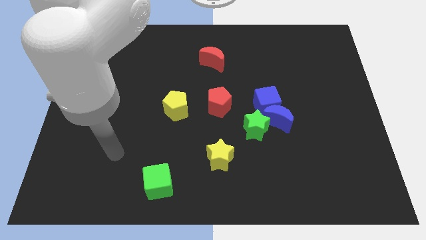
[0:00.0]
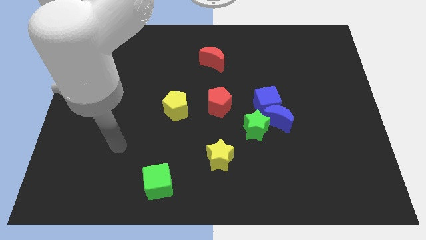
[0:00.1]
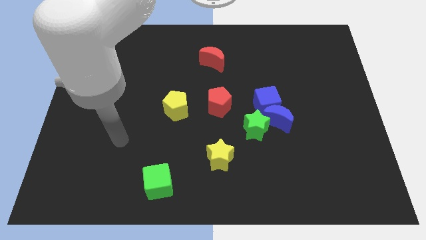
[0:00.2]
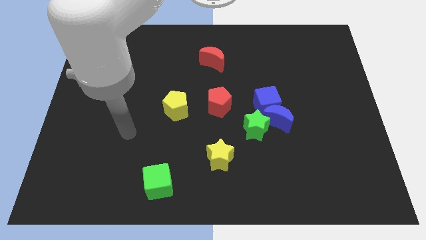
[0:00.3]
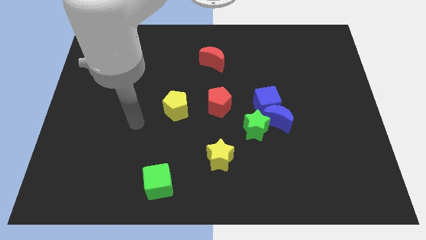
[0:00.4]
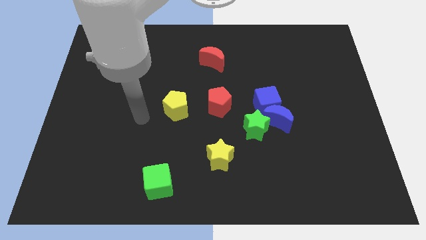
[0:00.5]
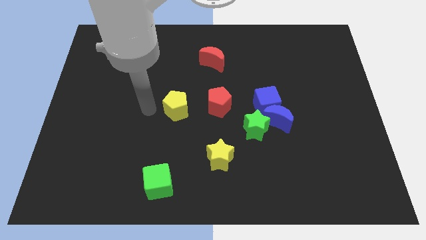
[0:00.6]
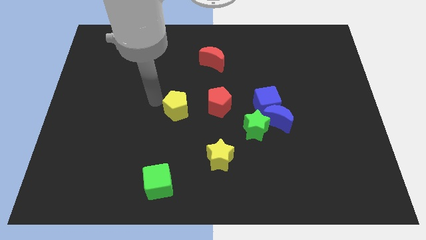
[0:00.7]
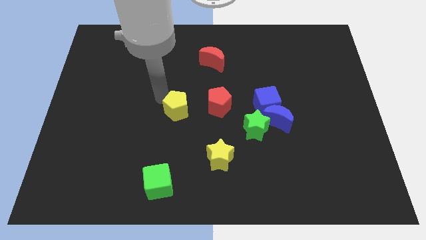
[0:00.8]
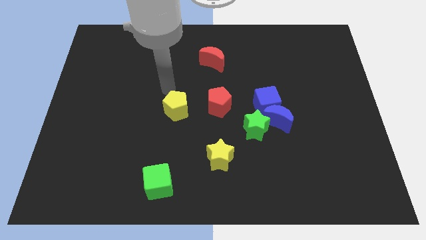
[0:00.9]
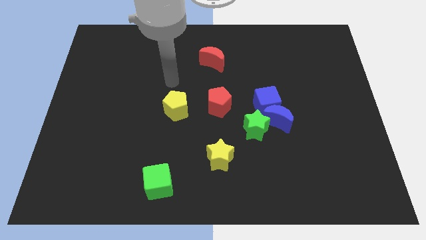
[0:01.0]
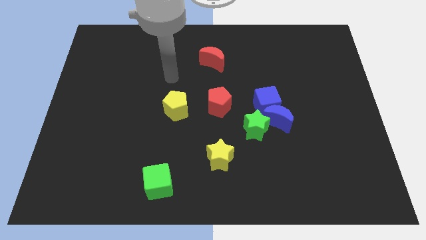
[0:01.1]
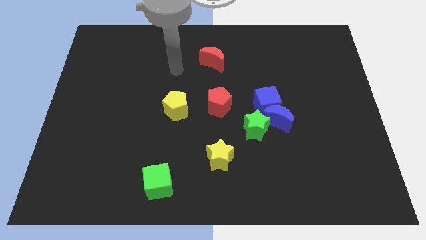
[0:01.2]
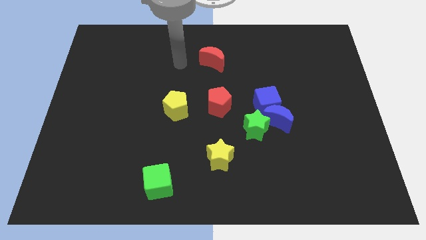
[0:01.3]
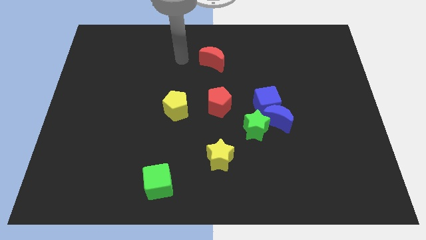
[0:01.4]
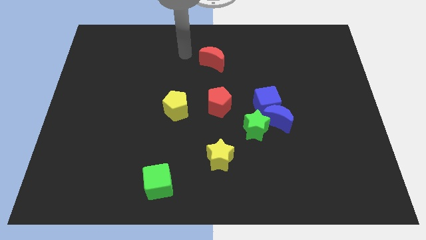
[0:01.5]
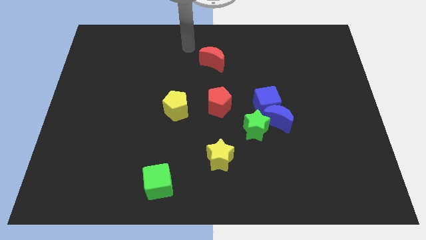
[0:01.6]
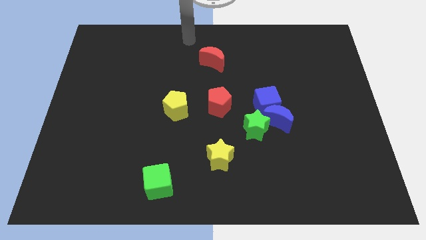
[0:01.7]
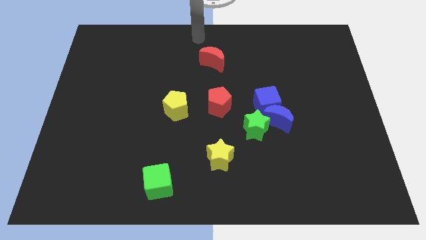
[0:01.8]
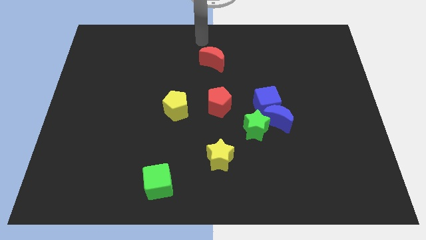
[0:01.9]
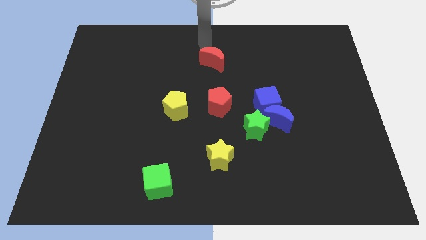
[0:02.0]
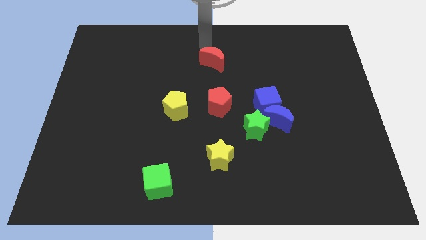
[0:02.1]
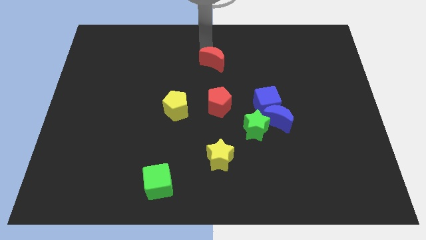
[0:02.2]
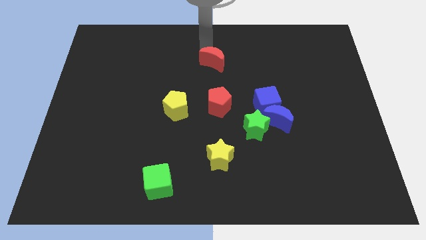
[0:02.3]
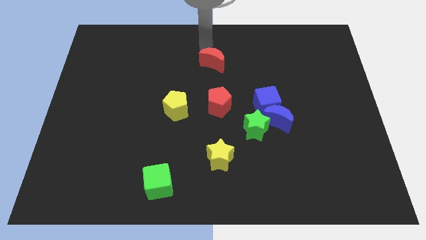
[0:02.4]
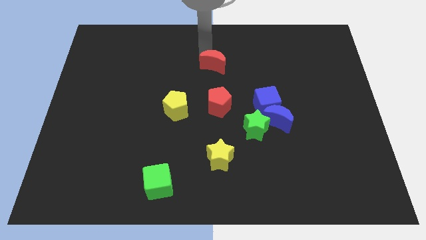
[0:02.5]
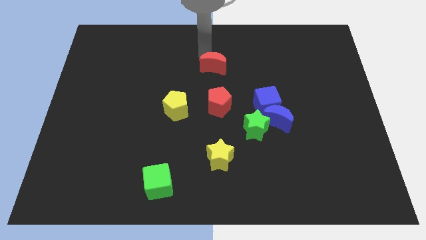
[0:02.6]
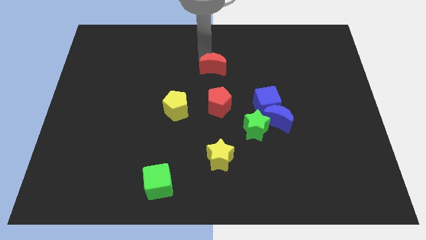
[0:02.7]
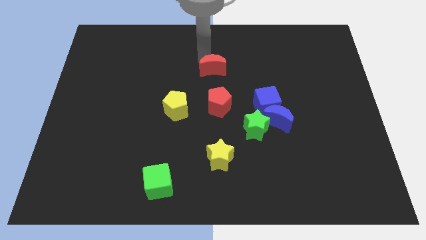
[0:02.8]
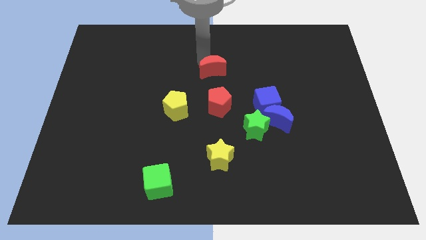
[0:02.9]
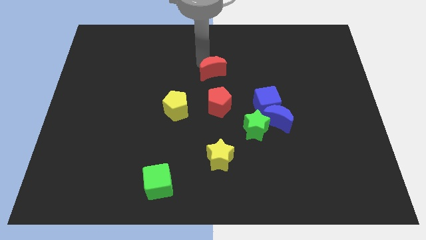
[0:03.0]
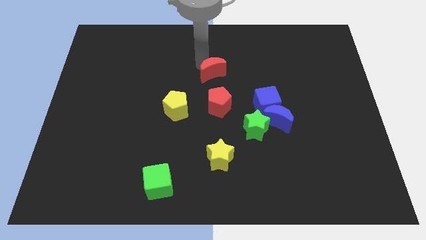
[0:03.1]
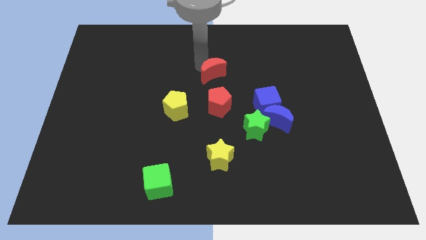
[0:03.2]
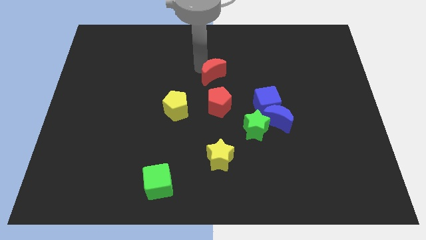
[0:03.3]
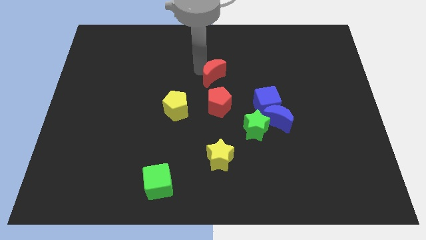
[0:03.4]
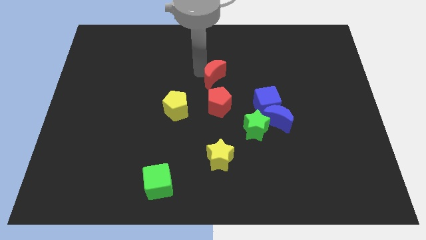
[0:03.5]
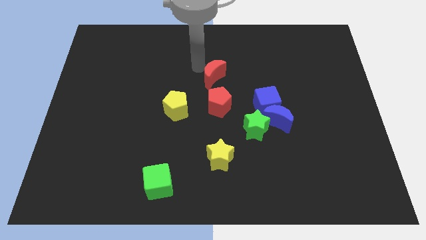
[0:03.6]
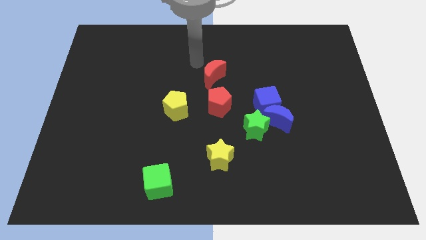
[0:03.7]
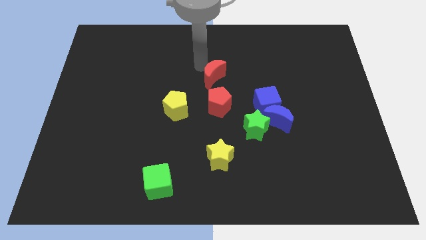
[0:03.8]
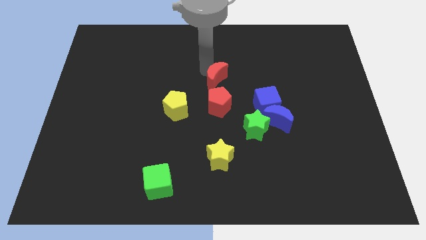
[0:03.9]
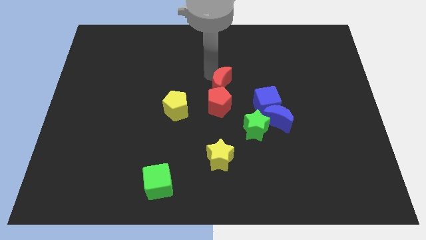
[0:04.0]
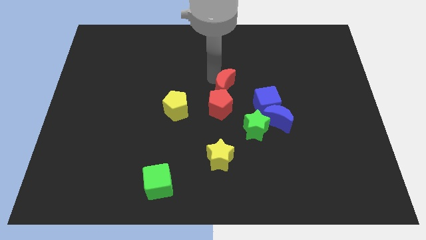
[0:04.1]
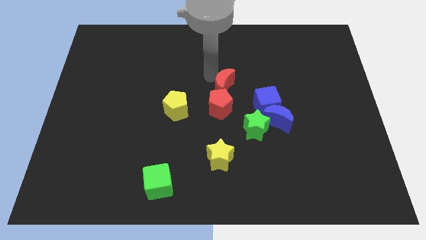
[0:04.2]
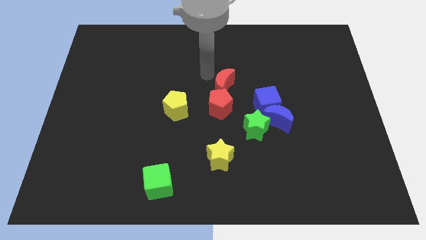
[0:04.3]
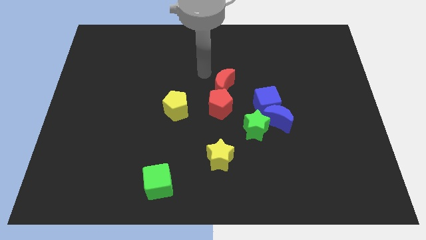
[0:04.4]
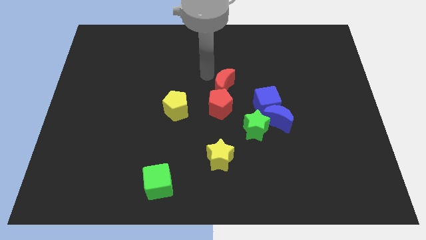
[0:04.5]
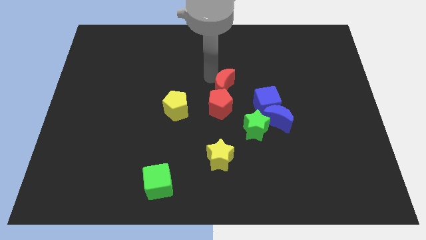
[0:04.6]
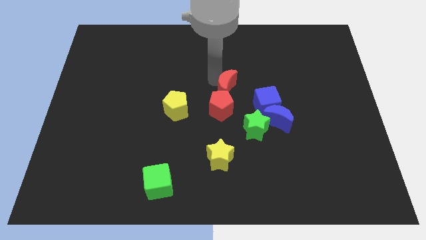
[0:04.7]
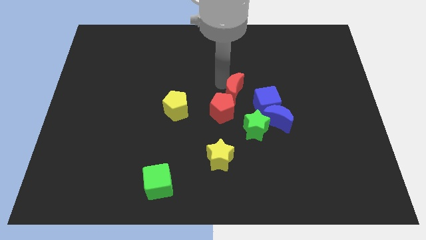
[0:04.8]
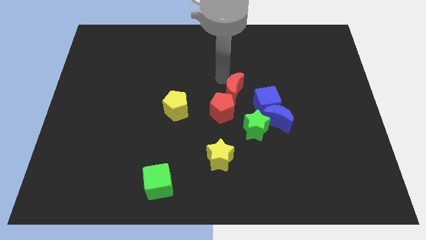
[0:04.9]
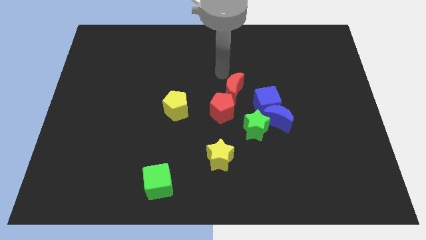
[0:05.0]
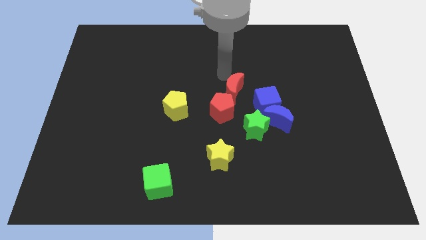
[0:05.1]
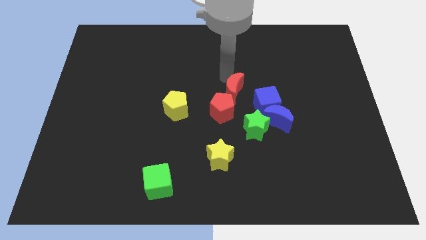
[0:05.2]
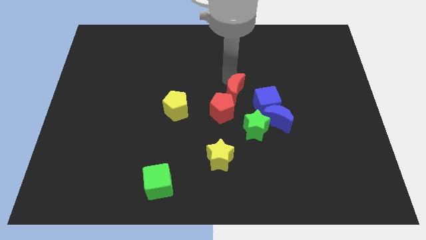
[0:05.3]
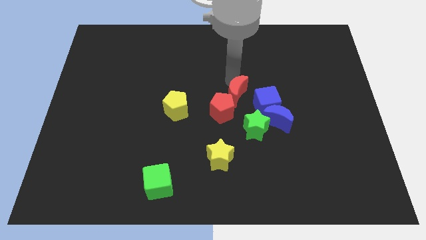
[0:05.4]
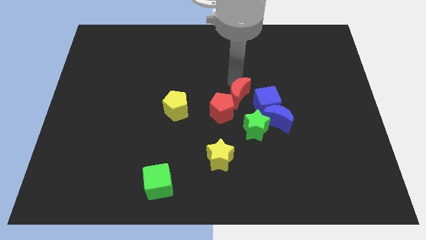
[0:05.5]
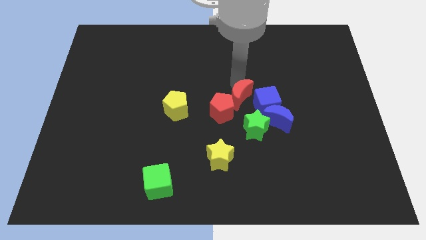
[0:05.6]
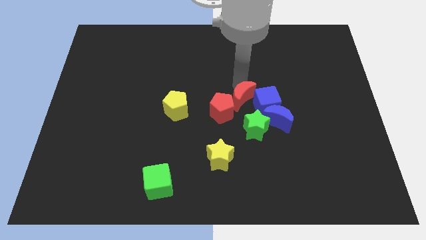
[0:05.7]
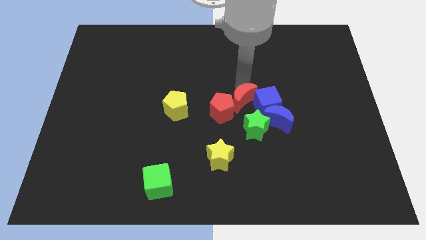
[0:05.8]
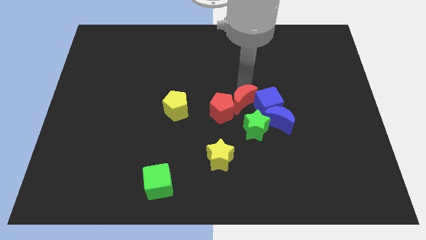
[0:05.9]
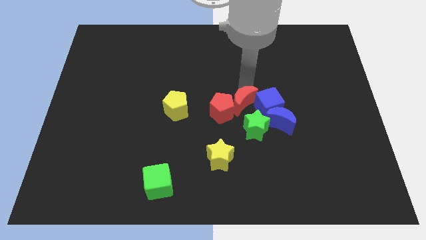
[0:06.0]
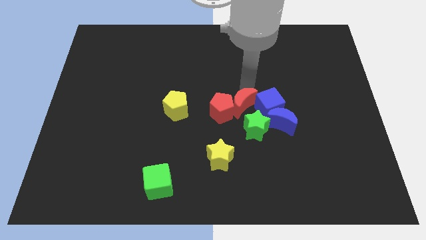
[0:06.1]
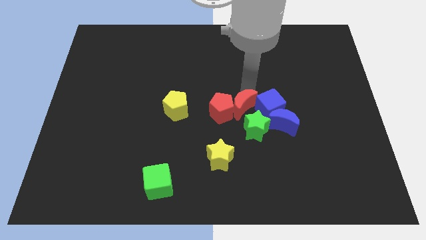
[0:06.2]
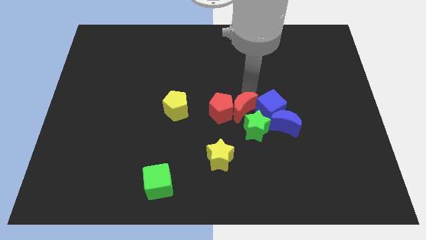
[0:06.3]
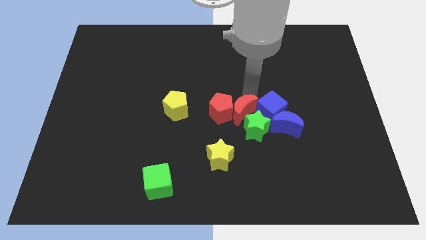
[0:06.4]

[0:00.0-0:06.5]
slide the red moon close to the green star
